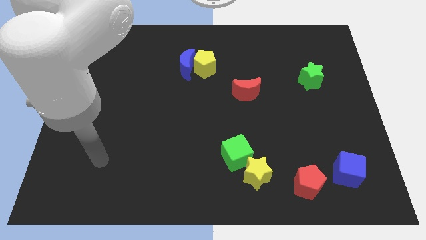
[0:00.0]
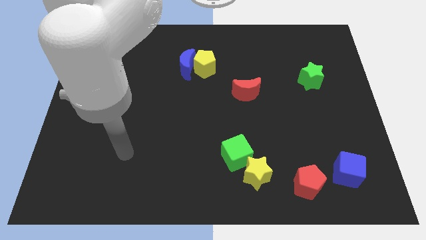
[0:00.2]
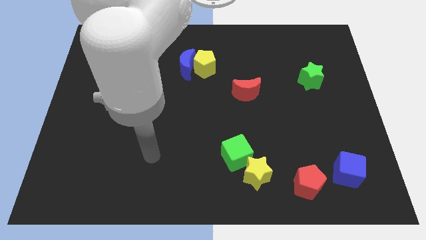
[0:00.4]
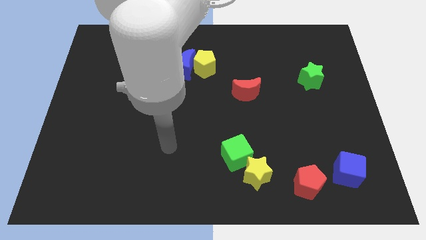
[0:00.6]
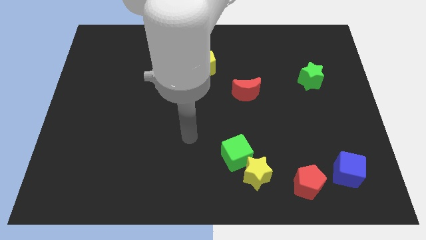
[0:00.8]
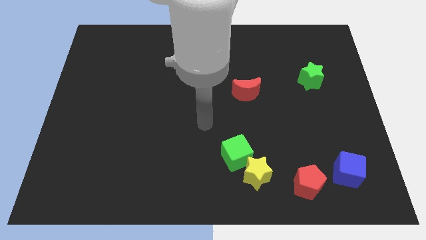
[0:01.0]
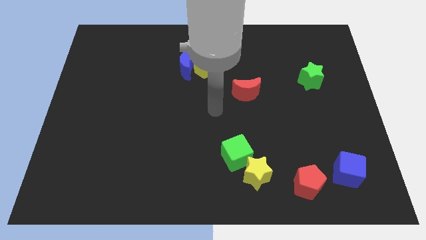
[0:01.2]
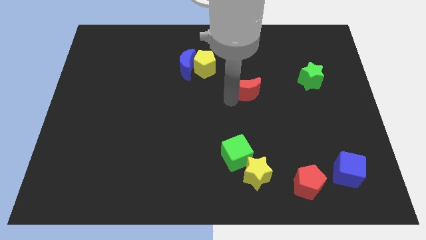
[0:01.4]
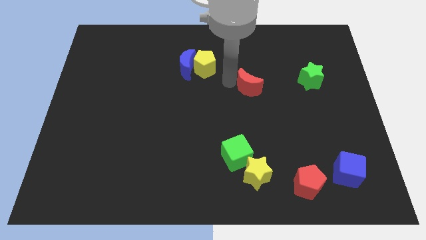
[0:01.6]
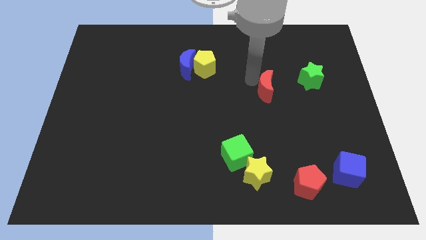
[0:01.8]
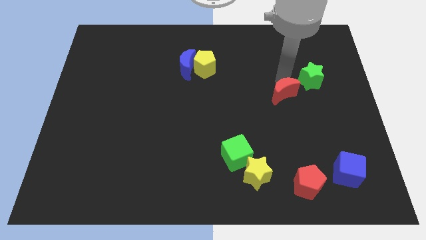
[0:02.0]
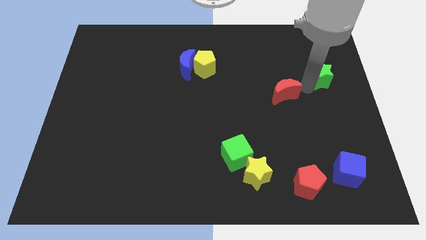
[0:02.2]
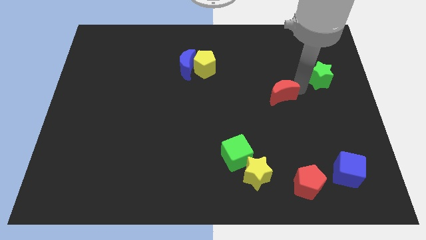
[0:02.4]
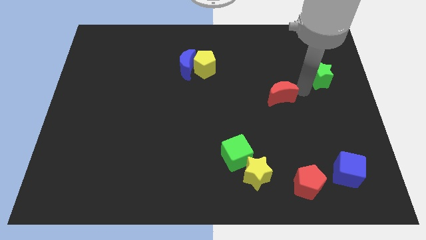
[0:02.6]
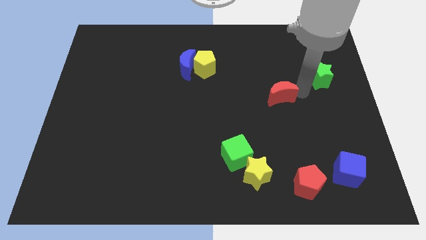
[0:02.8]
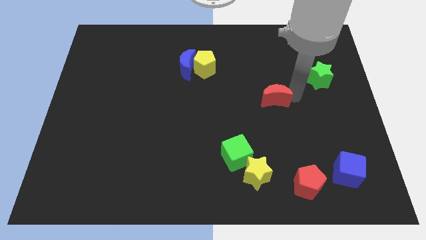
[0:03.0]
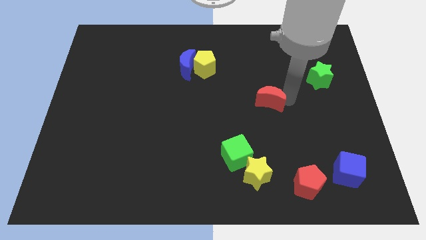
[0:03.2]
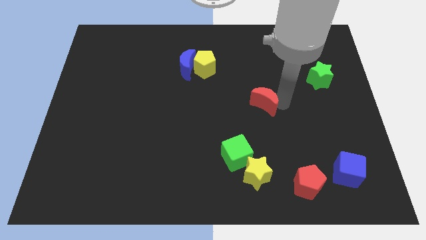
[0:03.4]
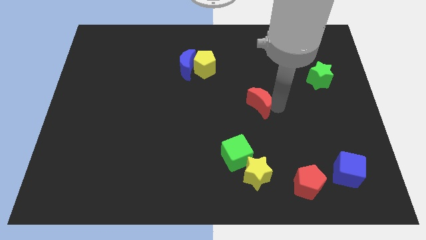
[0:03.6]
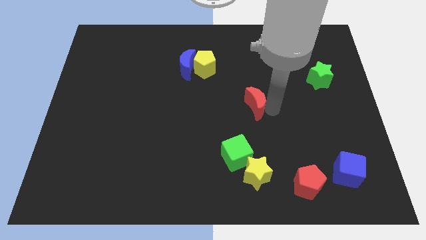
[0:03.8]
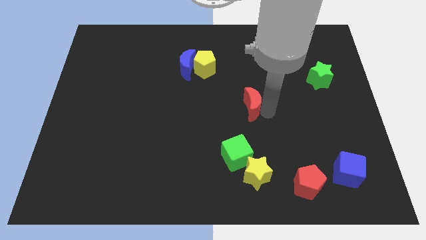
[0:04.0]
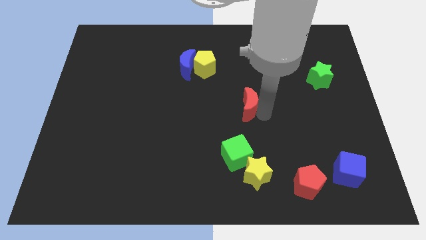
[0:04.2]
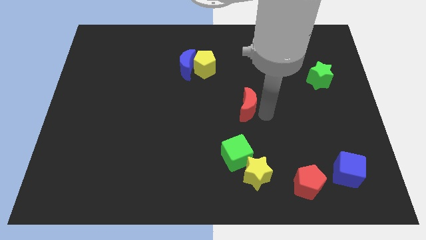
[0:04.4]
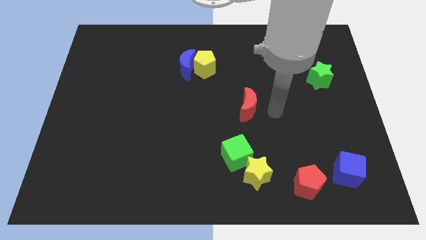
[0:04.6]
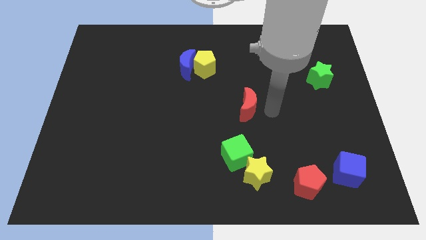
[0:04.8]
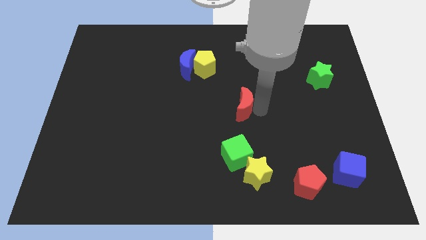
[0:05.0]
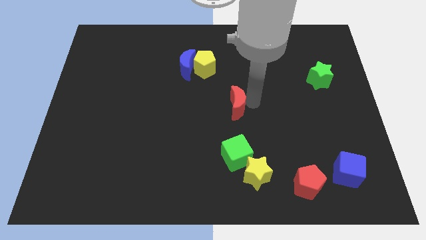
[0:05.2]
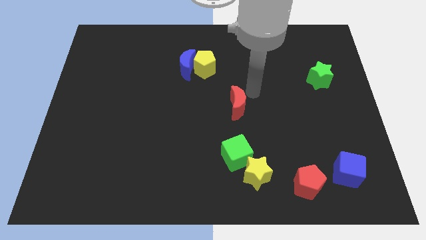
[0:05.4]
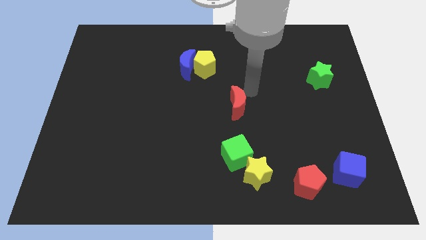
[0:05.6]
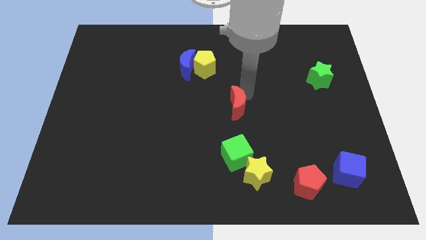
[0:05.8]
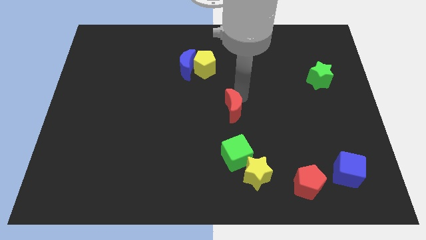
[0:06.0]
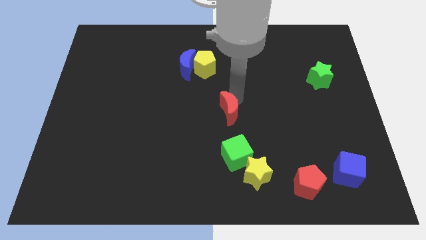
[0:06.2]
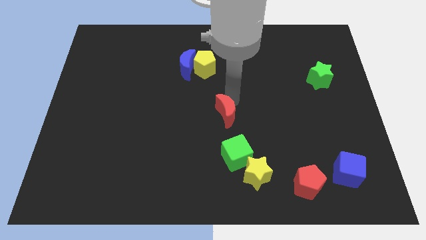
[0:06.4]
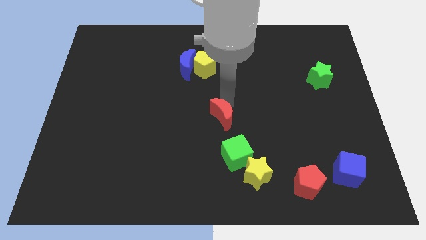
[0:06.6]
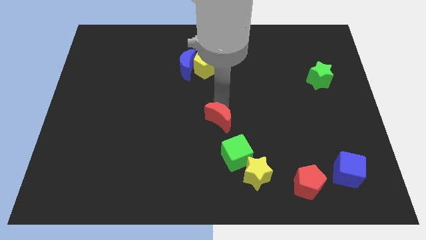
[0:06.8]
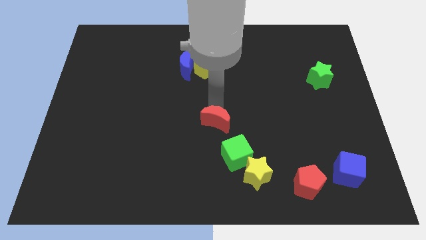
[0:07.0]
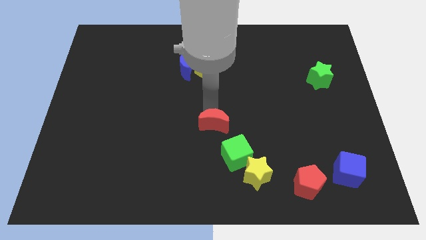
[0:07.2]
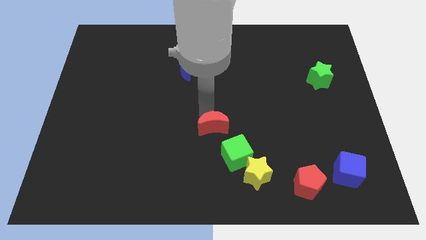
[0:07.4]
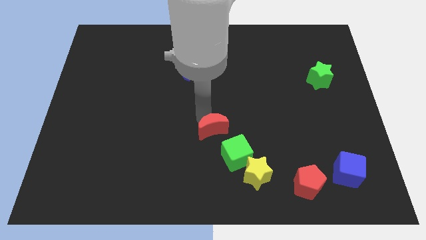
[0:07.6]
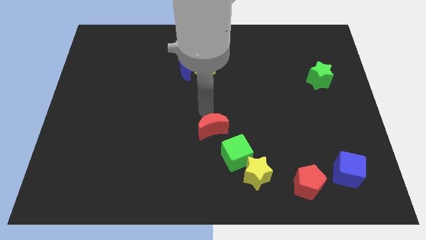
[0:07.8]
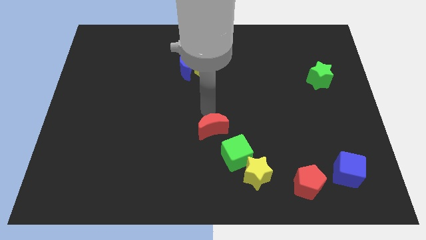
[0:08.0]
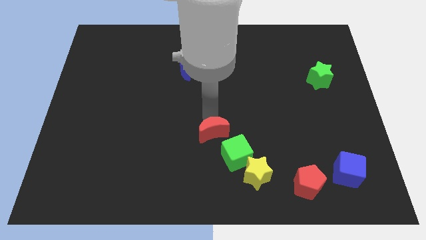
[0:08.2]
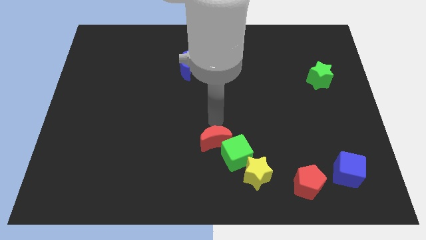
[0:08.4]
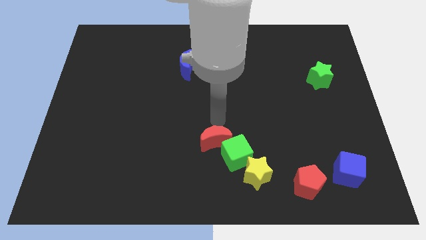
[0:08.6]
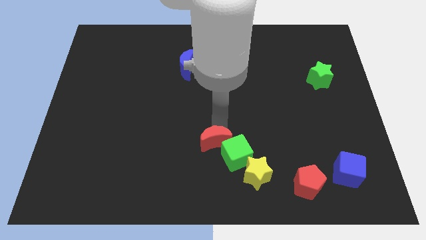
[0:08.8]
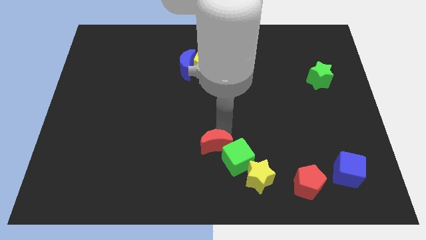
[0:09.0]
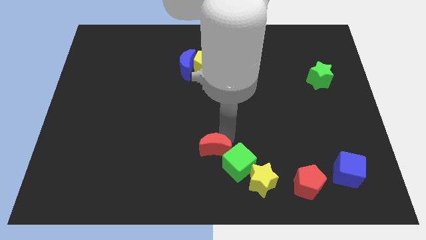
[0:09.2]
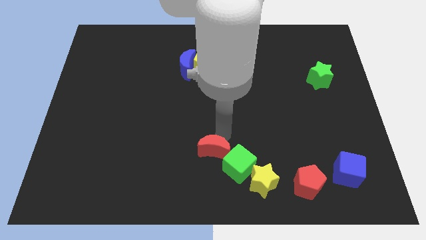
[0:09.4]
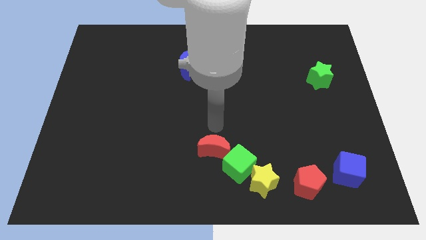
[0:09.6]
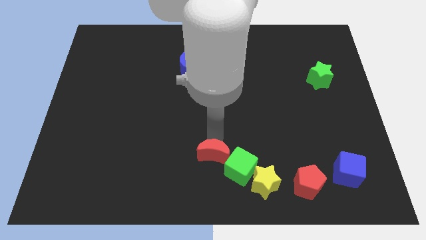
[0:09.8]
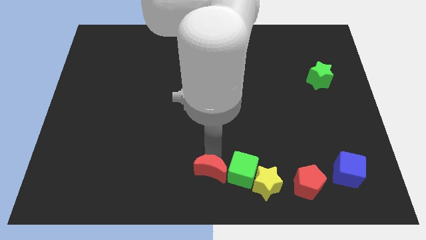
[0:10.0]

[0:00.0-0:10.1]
move the red moon to the bottom left of the green cube

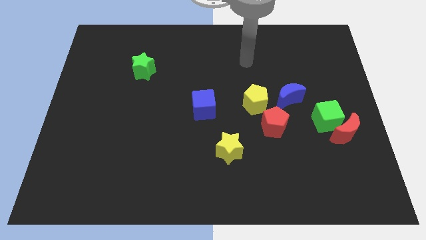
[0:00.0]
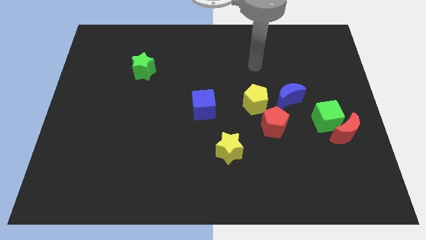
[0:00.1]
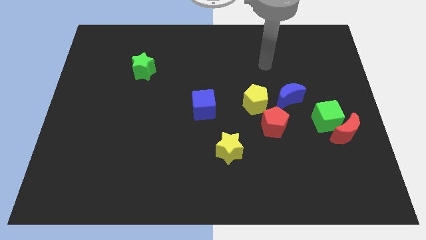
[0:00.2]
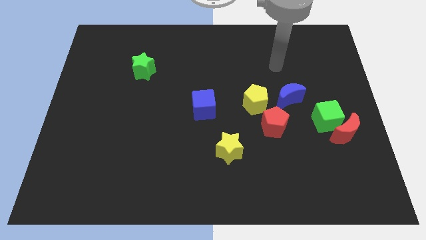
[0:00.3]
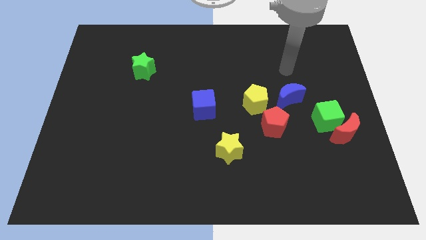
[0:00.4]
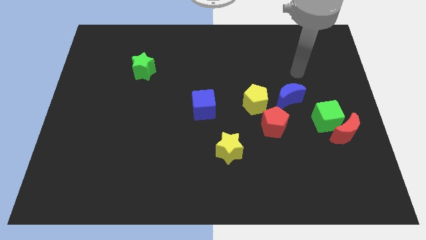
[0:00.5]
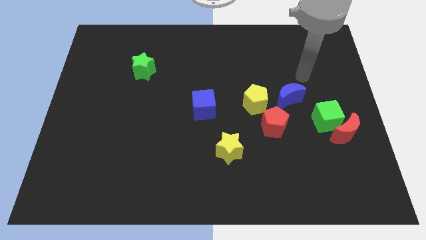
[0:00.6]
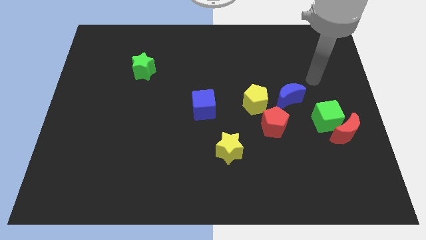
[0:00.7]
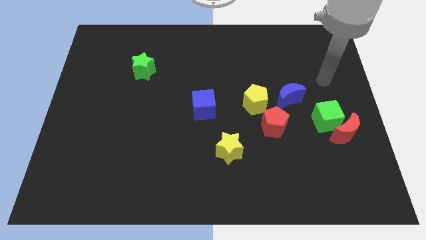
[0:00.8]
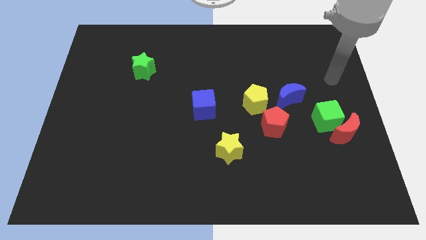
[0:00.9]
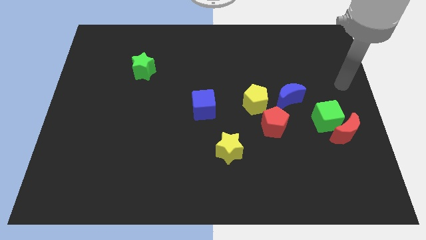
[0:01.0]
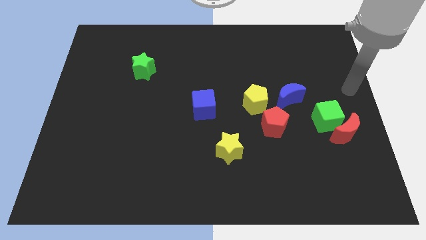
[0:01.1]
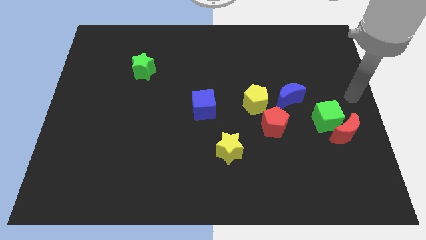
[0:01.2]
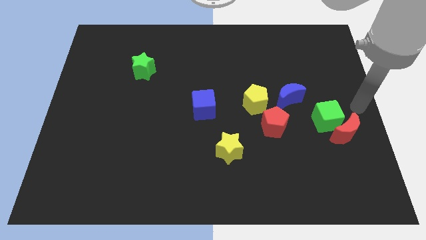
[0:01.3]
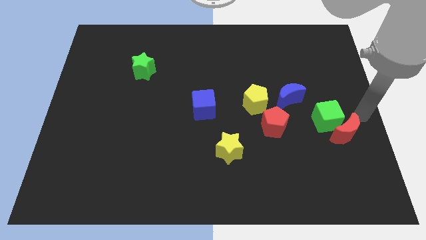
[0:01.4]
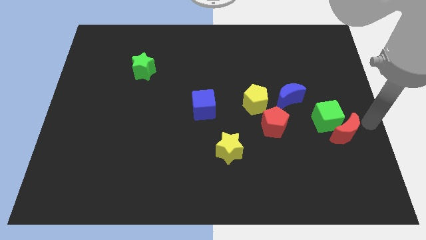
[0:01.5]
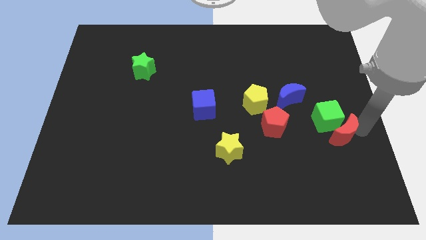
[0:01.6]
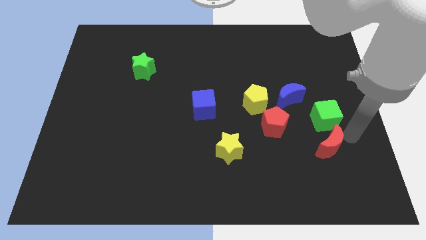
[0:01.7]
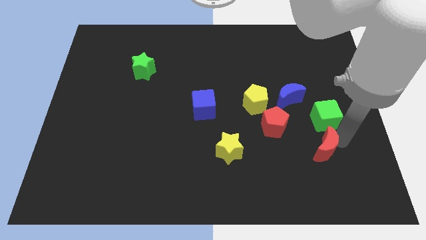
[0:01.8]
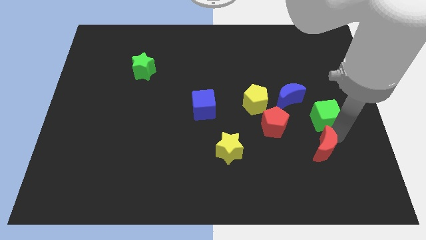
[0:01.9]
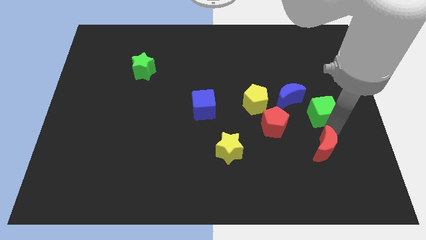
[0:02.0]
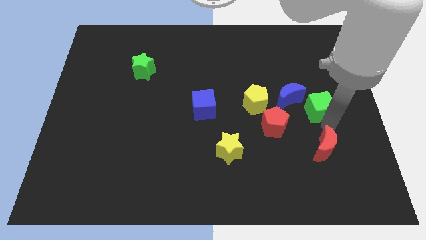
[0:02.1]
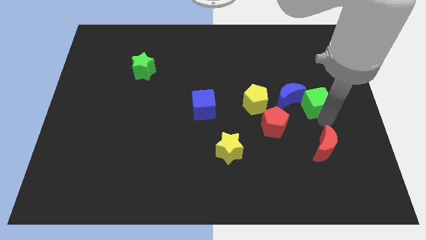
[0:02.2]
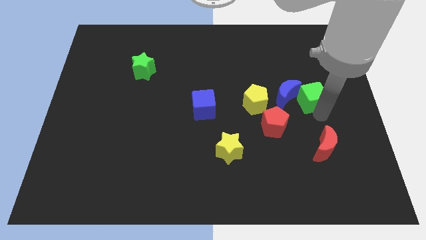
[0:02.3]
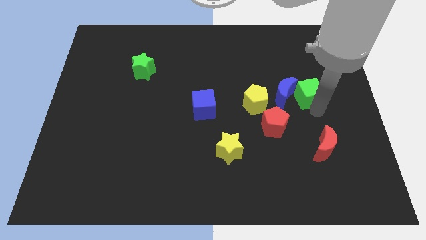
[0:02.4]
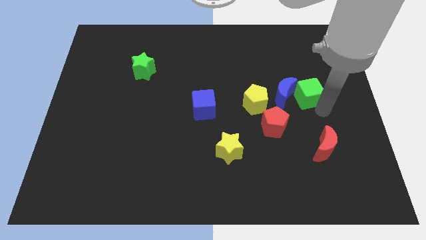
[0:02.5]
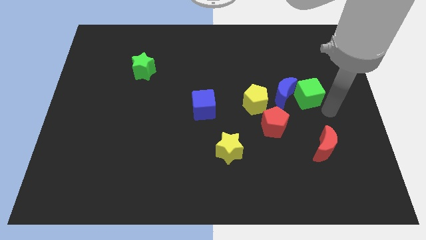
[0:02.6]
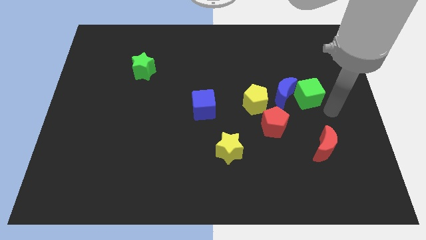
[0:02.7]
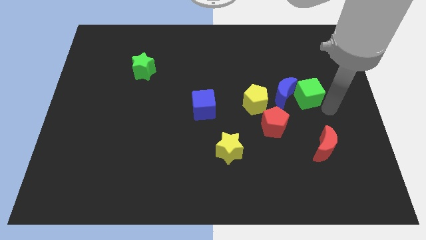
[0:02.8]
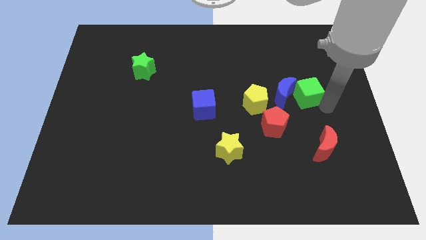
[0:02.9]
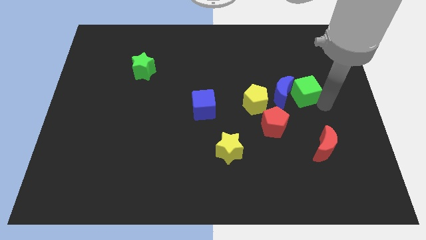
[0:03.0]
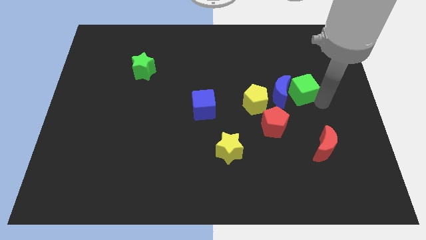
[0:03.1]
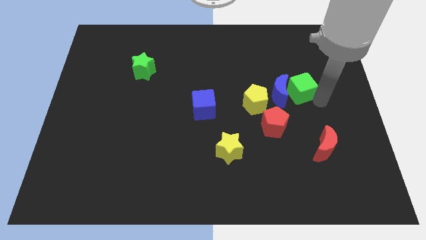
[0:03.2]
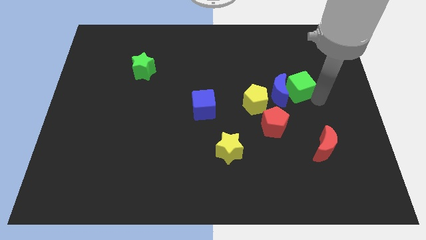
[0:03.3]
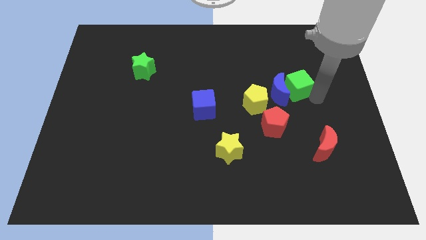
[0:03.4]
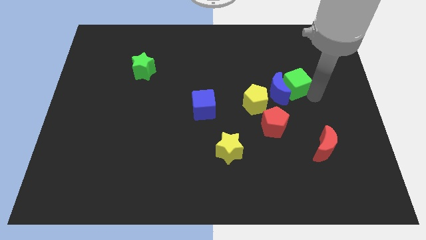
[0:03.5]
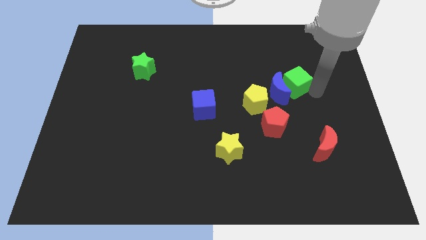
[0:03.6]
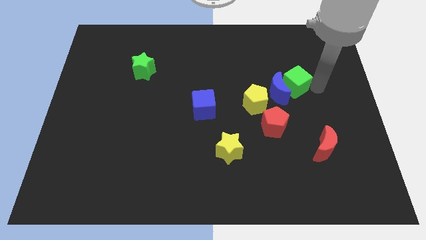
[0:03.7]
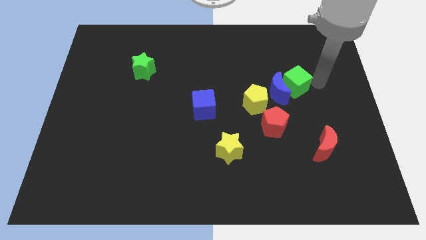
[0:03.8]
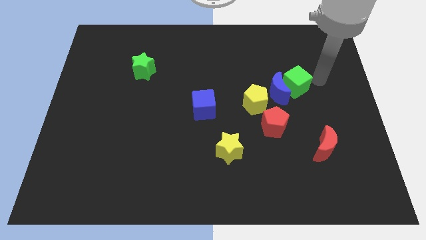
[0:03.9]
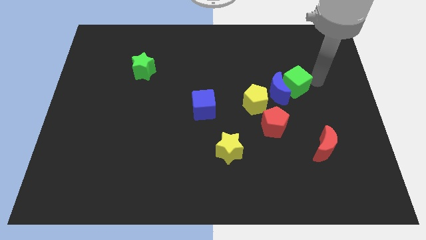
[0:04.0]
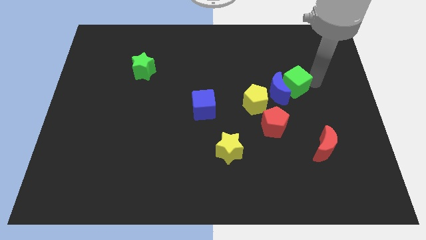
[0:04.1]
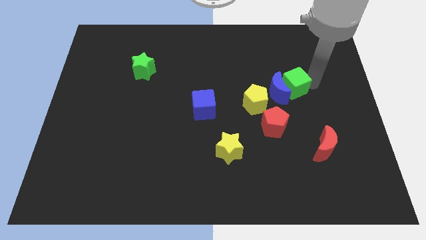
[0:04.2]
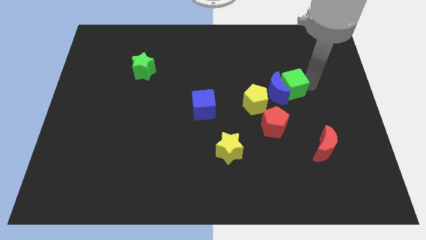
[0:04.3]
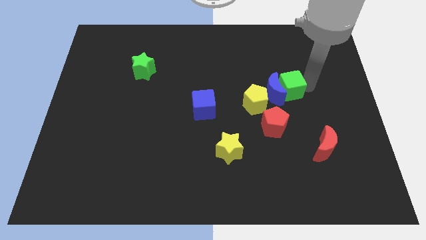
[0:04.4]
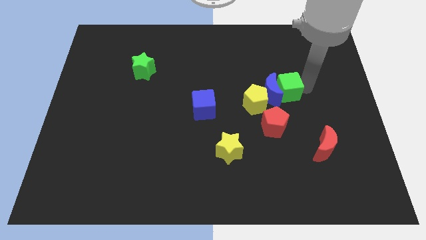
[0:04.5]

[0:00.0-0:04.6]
slide the green cube to the top side of the red pentagon
